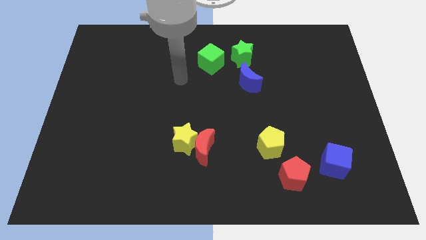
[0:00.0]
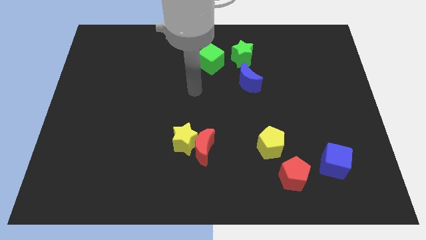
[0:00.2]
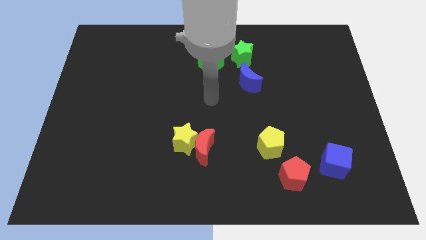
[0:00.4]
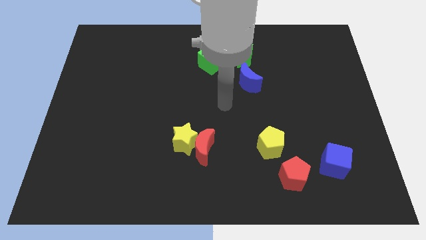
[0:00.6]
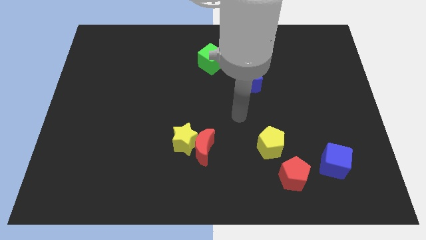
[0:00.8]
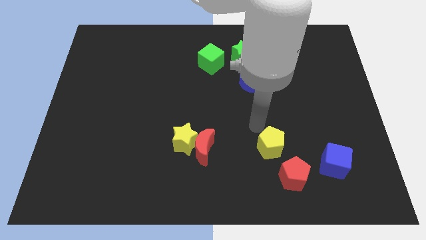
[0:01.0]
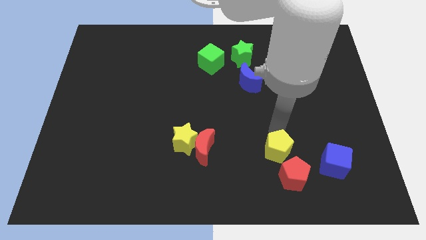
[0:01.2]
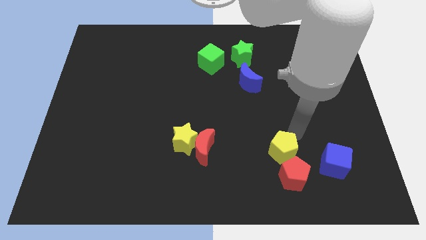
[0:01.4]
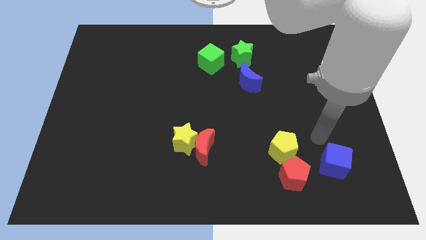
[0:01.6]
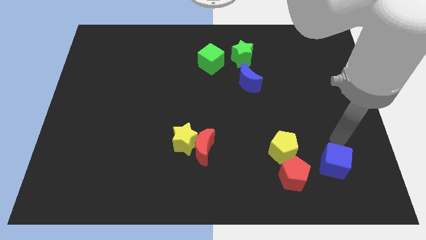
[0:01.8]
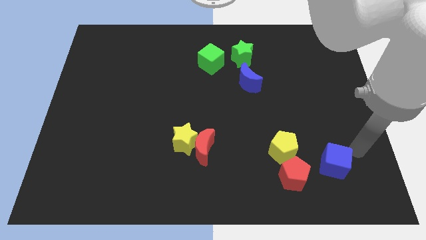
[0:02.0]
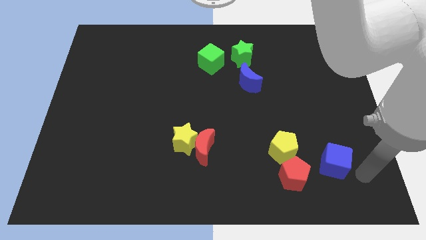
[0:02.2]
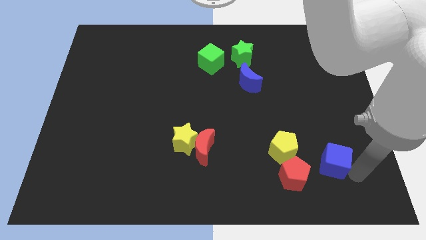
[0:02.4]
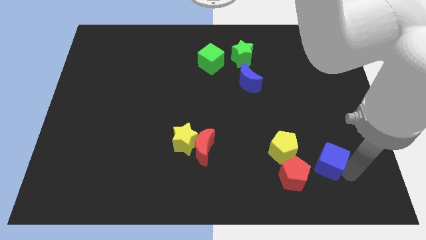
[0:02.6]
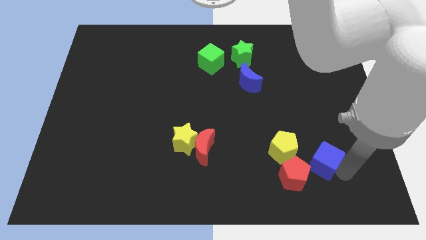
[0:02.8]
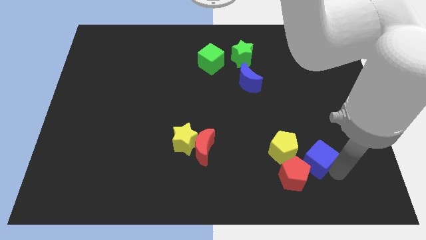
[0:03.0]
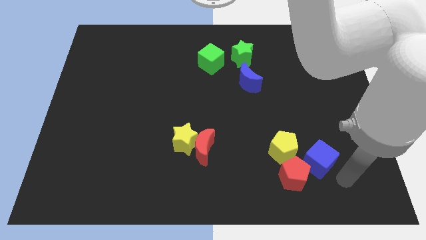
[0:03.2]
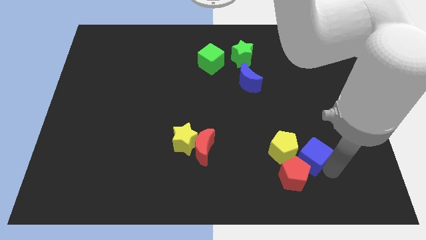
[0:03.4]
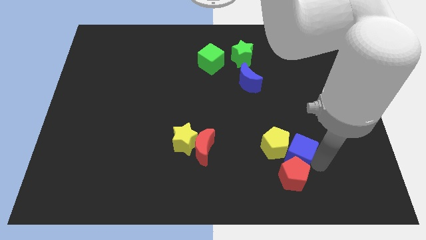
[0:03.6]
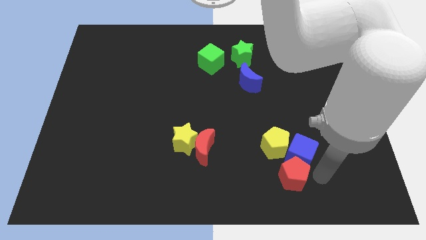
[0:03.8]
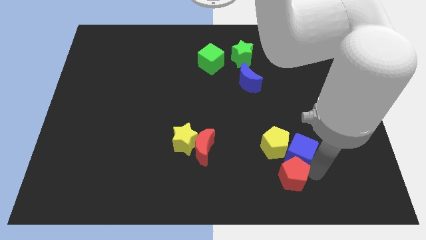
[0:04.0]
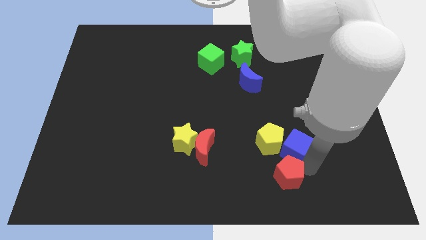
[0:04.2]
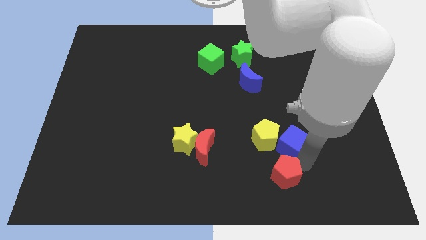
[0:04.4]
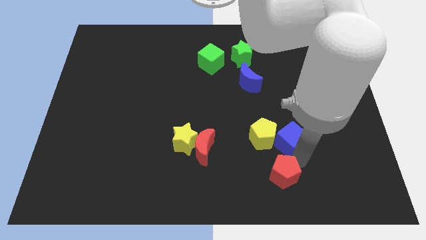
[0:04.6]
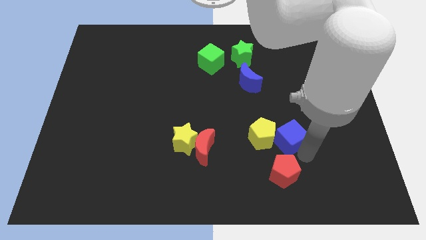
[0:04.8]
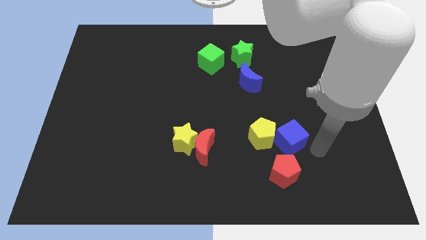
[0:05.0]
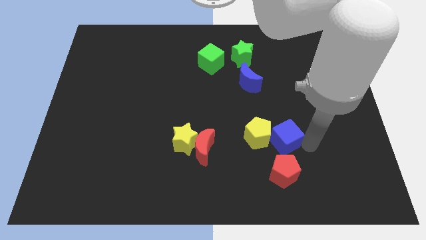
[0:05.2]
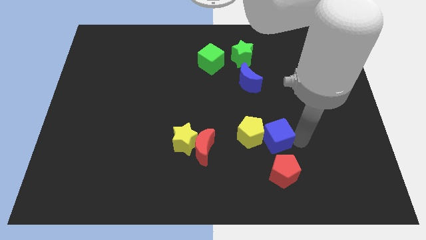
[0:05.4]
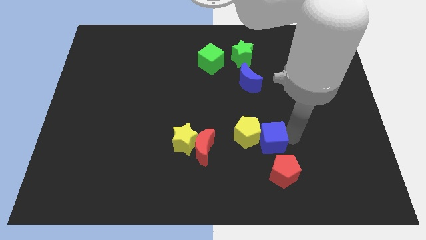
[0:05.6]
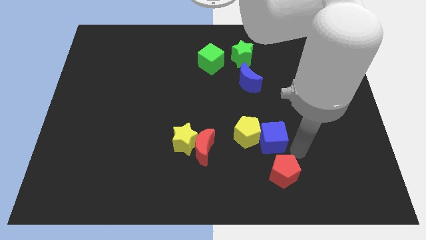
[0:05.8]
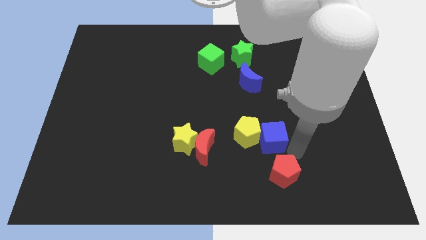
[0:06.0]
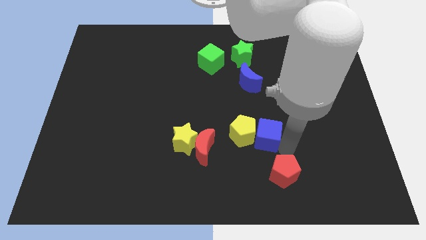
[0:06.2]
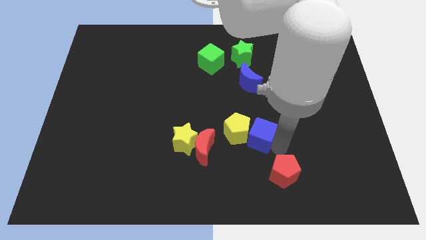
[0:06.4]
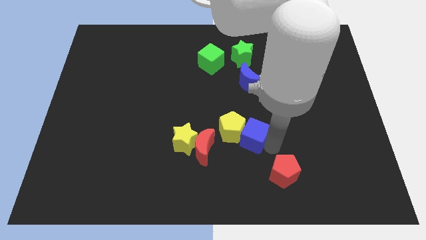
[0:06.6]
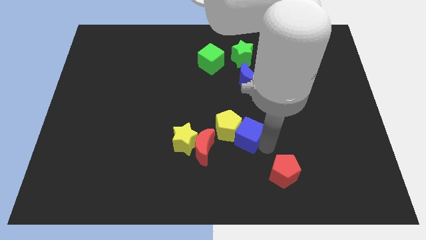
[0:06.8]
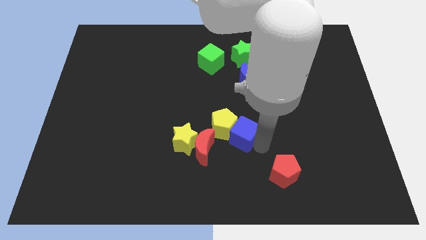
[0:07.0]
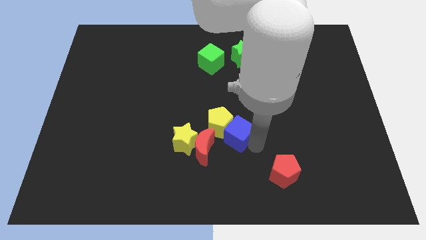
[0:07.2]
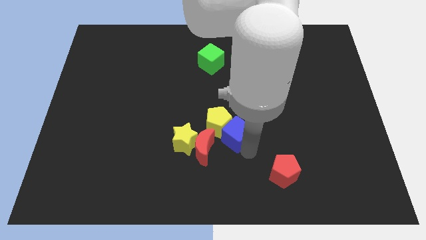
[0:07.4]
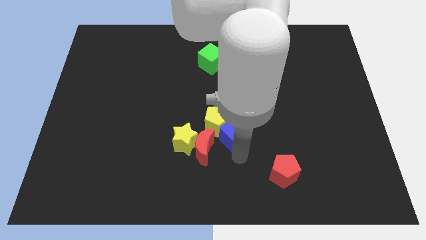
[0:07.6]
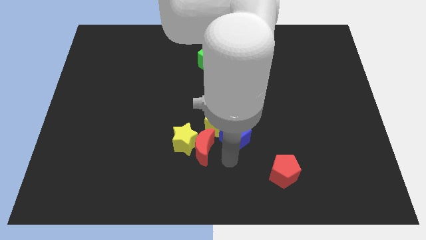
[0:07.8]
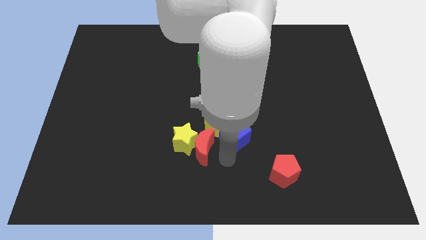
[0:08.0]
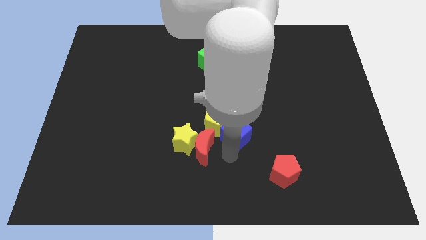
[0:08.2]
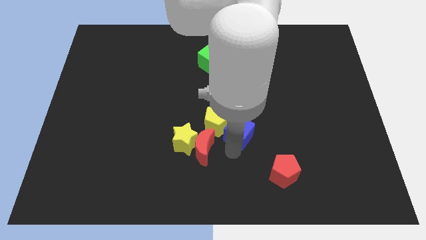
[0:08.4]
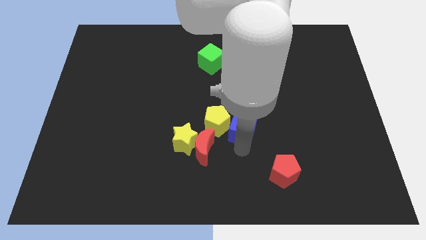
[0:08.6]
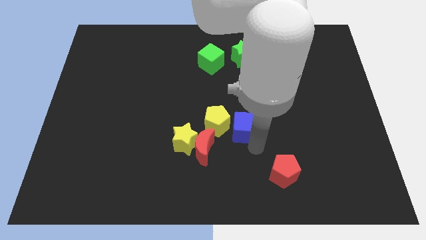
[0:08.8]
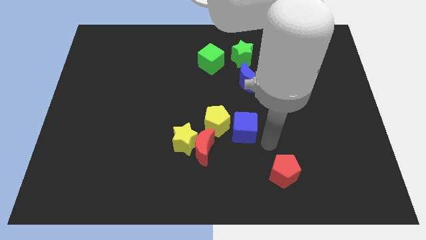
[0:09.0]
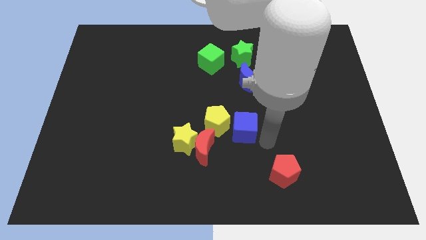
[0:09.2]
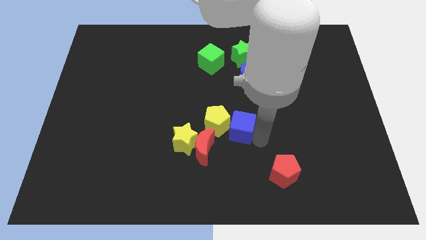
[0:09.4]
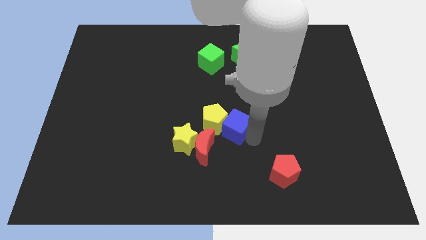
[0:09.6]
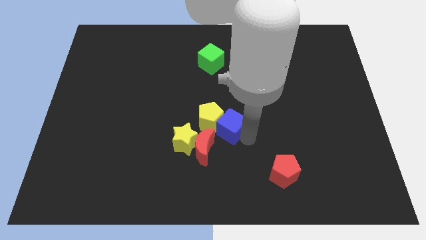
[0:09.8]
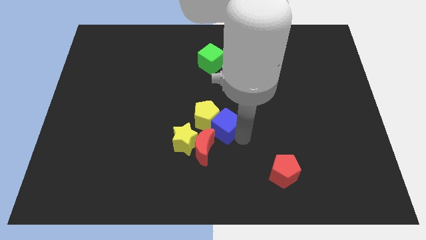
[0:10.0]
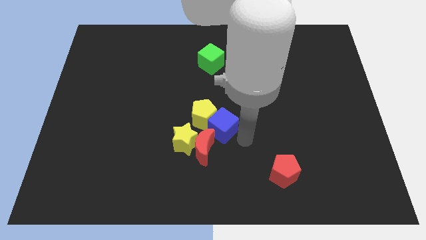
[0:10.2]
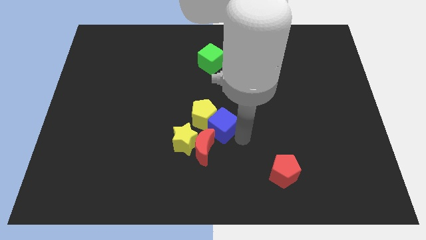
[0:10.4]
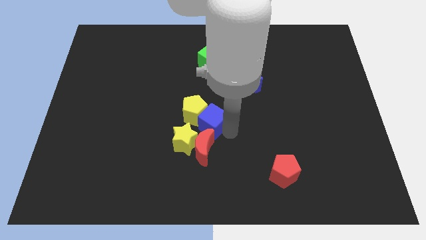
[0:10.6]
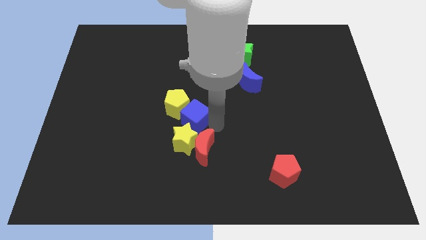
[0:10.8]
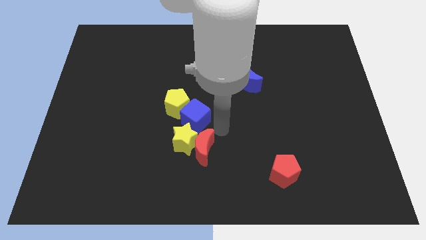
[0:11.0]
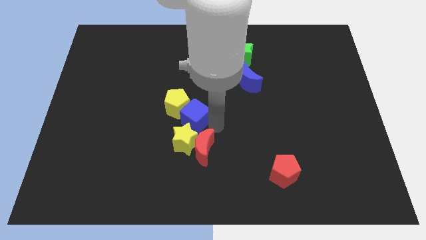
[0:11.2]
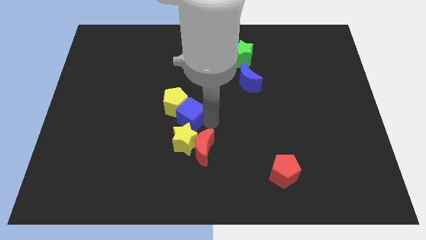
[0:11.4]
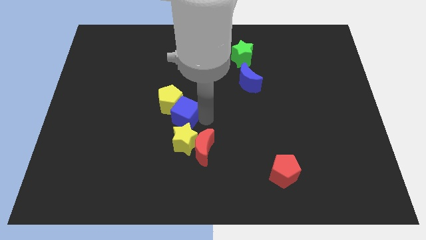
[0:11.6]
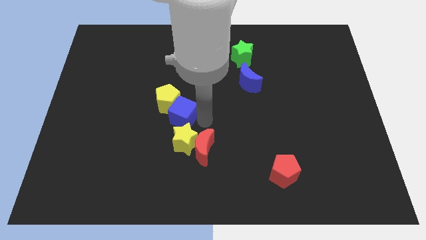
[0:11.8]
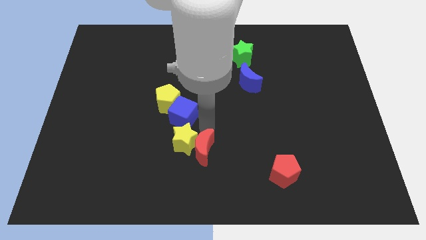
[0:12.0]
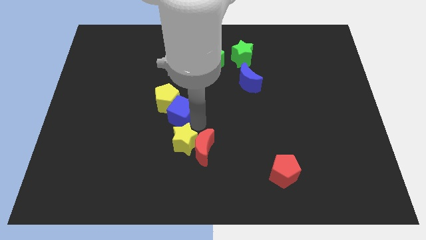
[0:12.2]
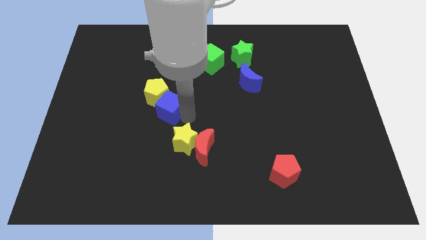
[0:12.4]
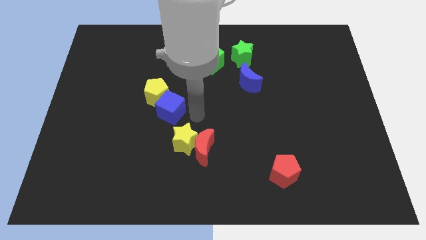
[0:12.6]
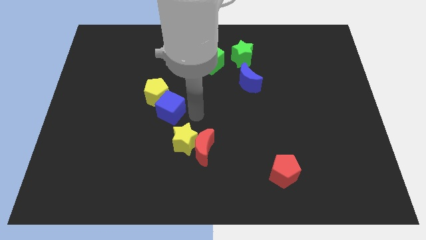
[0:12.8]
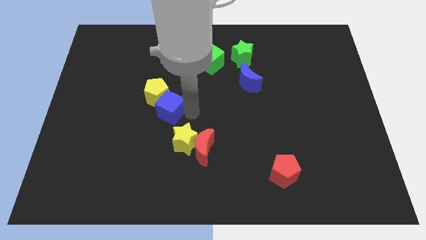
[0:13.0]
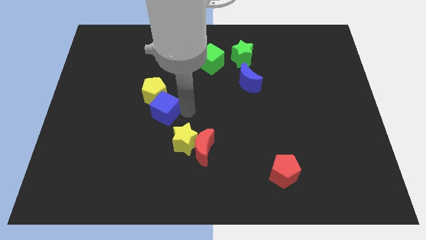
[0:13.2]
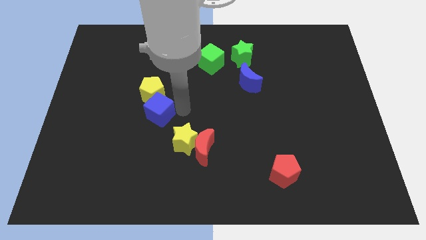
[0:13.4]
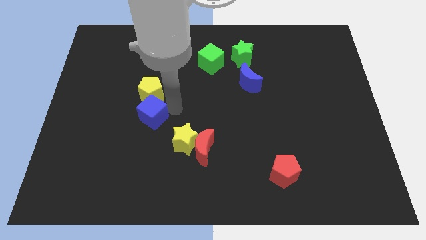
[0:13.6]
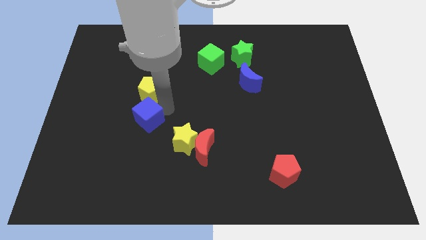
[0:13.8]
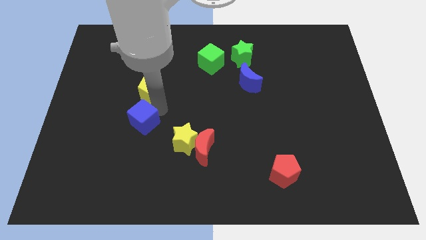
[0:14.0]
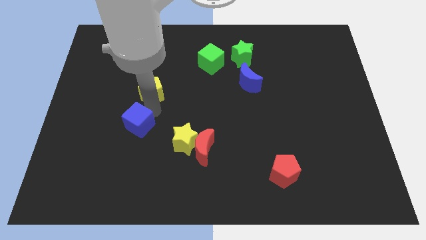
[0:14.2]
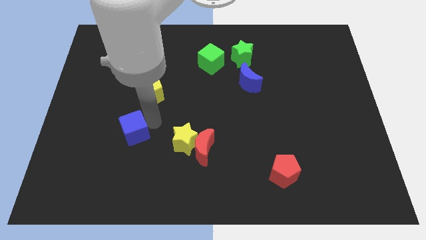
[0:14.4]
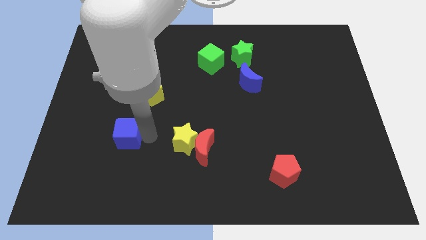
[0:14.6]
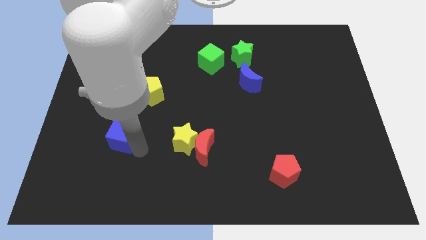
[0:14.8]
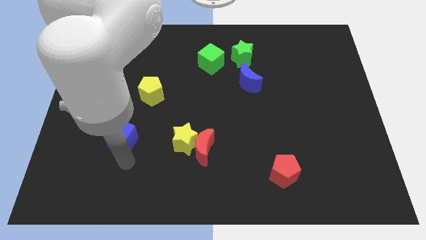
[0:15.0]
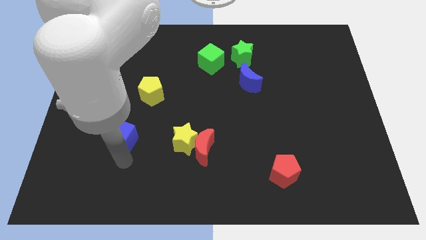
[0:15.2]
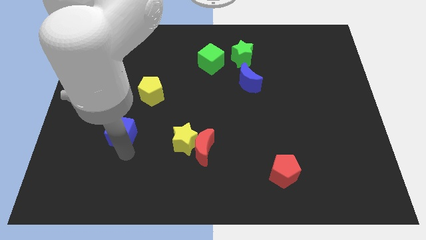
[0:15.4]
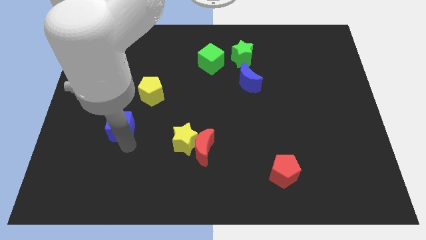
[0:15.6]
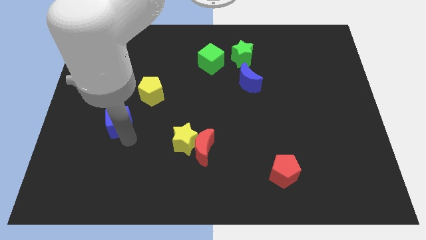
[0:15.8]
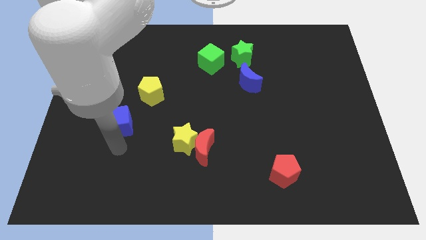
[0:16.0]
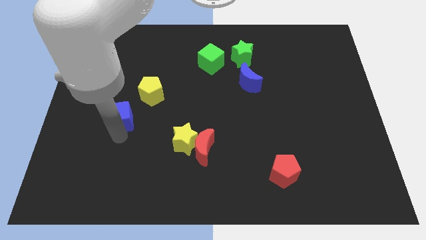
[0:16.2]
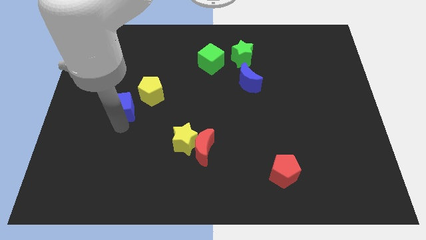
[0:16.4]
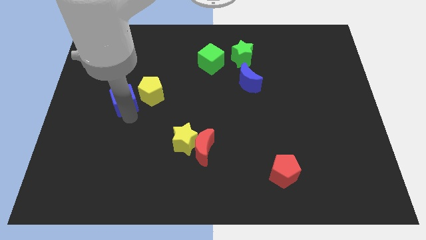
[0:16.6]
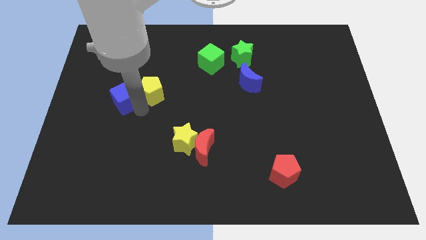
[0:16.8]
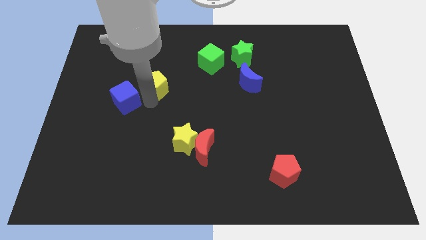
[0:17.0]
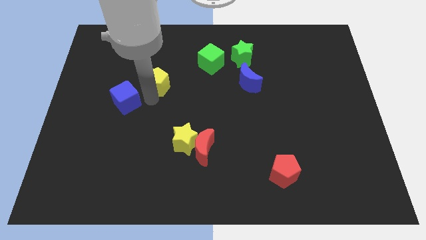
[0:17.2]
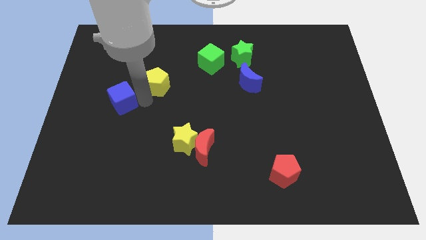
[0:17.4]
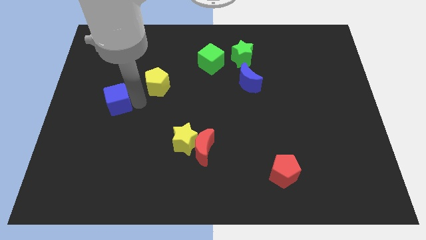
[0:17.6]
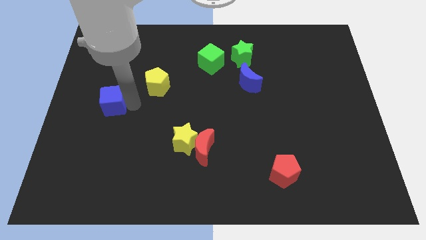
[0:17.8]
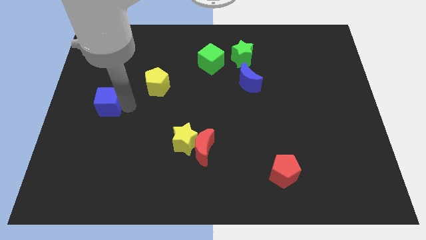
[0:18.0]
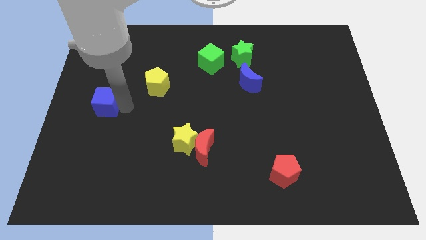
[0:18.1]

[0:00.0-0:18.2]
slide the blue cube to the center left
